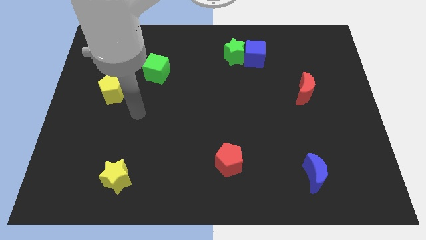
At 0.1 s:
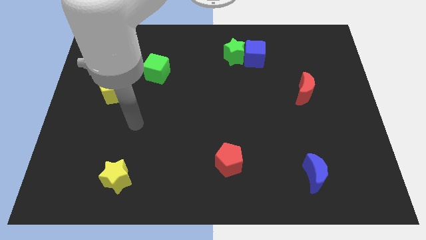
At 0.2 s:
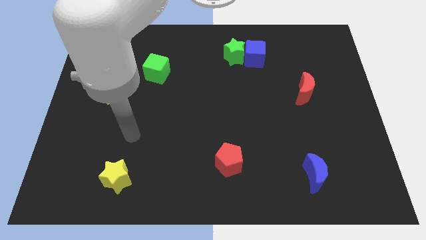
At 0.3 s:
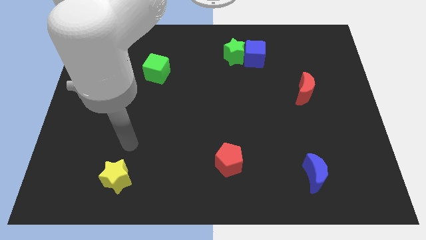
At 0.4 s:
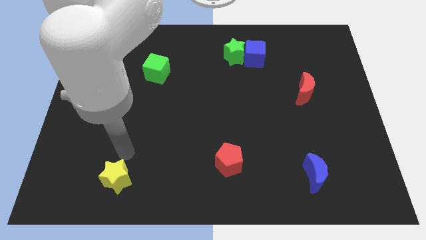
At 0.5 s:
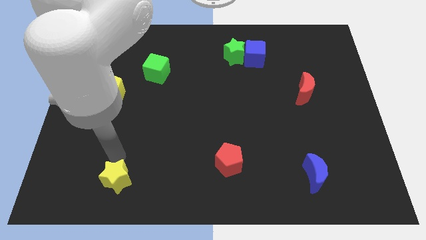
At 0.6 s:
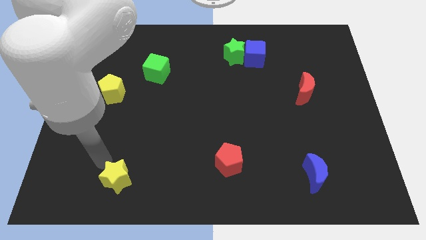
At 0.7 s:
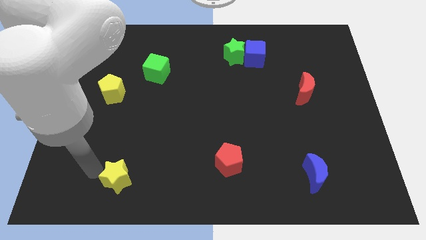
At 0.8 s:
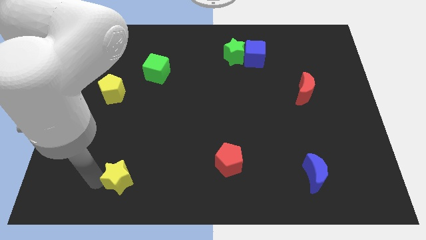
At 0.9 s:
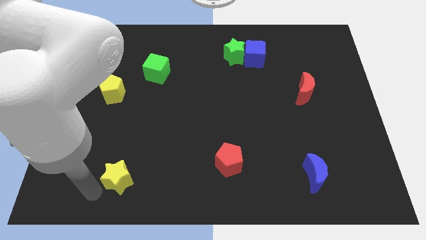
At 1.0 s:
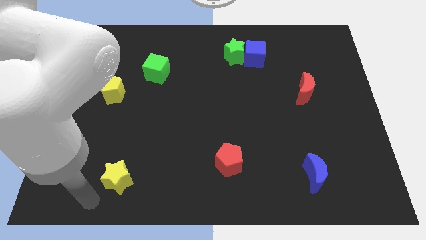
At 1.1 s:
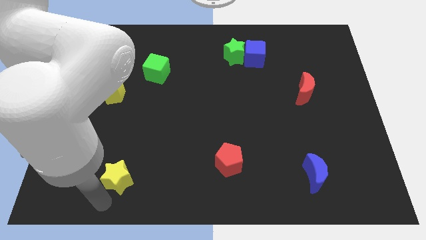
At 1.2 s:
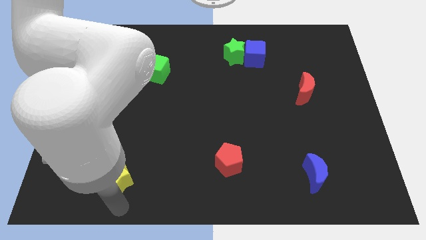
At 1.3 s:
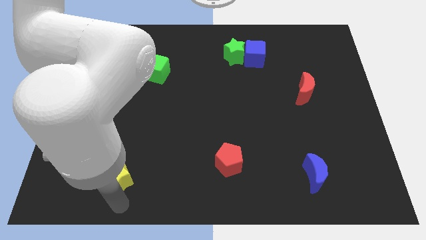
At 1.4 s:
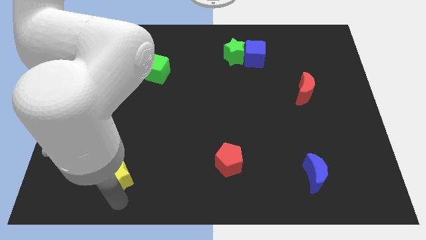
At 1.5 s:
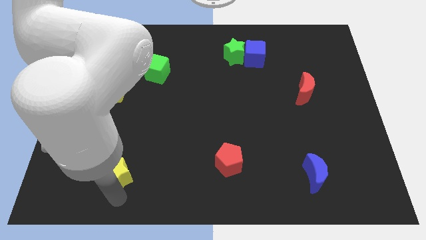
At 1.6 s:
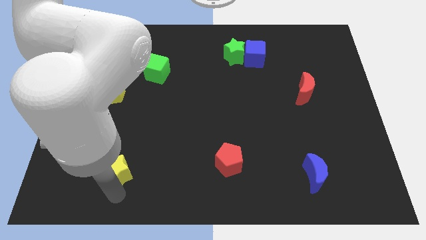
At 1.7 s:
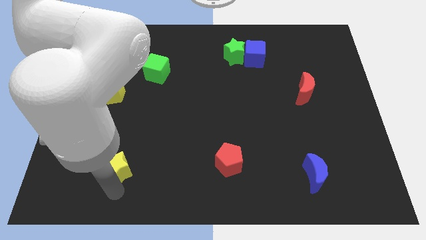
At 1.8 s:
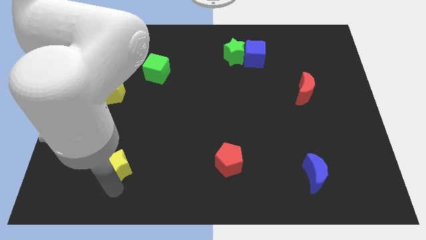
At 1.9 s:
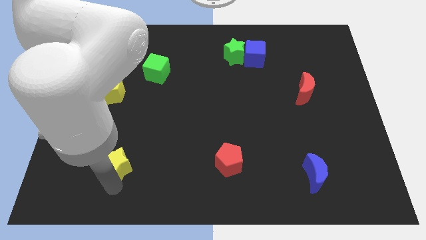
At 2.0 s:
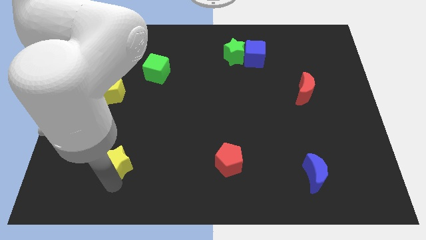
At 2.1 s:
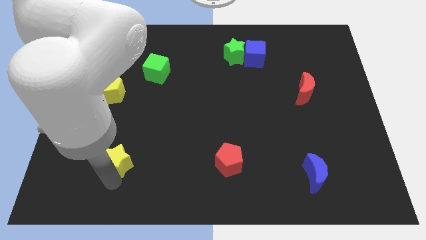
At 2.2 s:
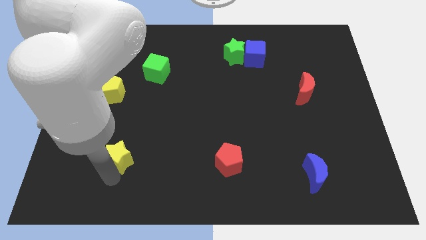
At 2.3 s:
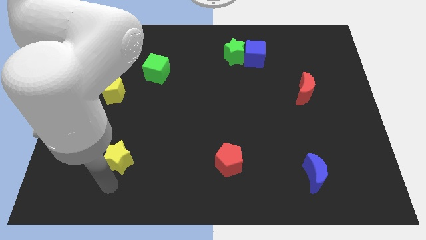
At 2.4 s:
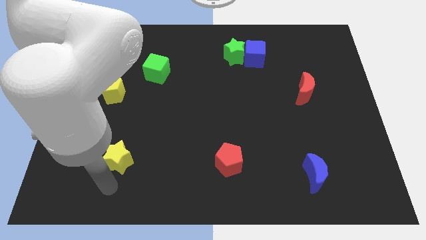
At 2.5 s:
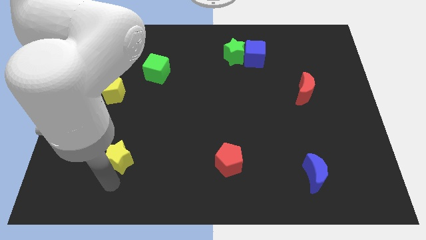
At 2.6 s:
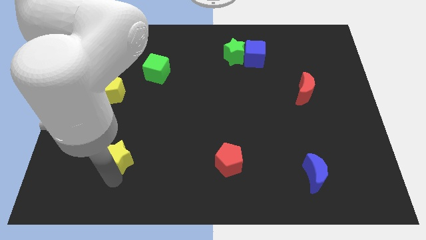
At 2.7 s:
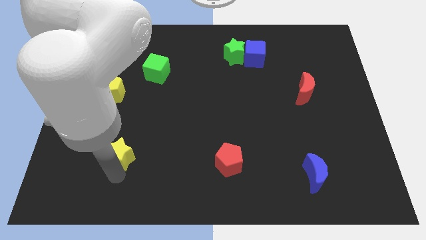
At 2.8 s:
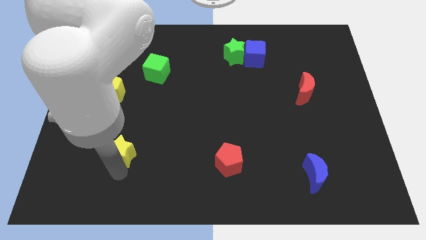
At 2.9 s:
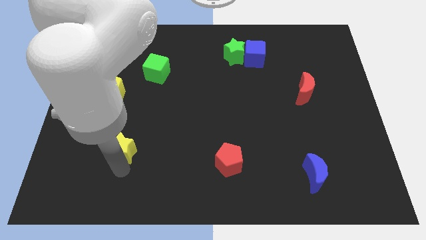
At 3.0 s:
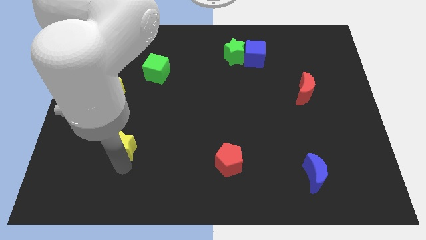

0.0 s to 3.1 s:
slide the yellow star upwards a bit

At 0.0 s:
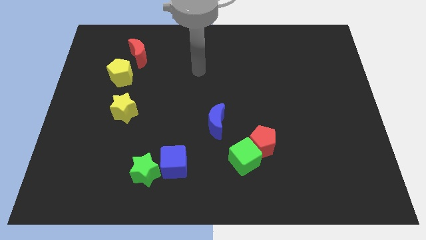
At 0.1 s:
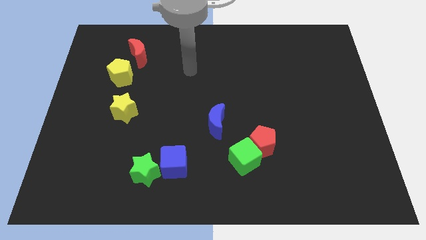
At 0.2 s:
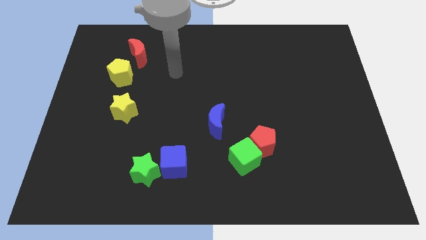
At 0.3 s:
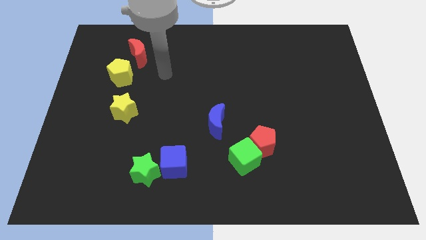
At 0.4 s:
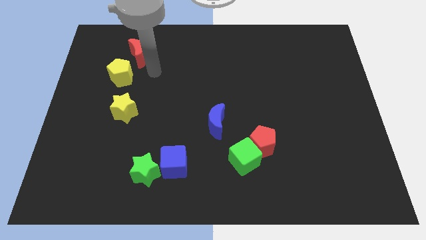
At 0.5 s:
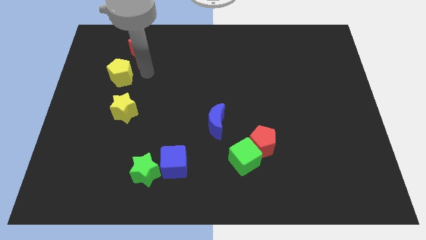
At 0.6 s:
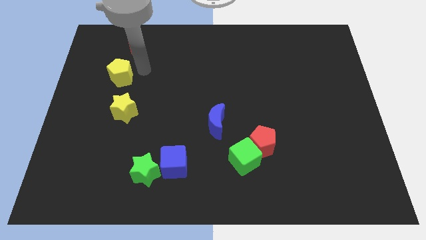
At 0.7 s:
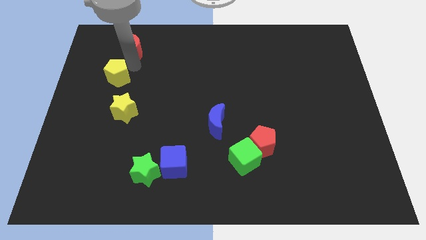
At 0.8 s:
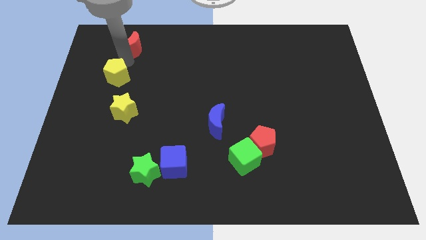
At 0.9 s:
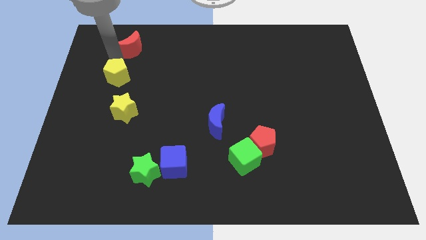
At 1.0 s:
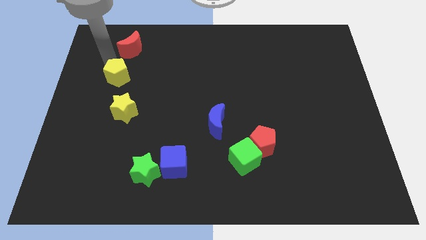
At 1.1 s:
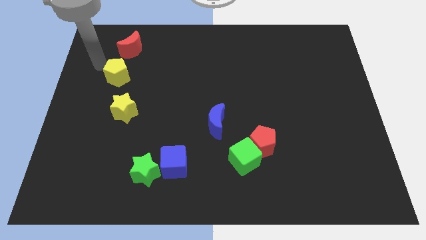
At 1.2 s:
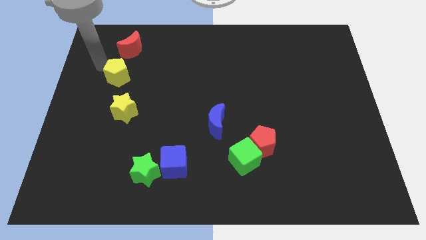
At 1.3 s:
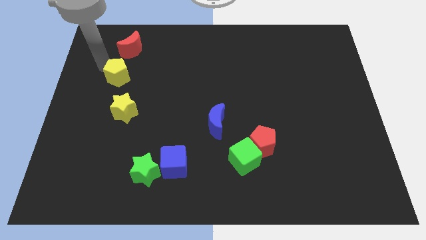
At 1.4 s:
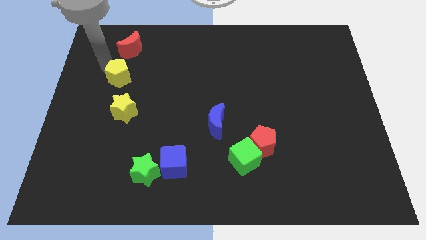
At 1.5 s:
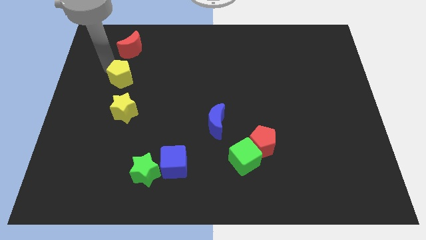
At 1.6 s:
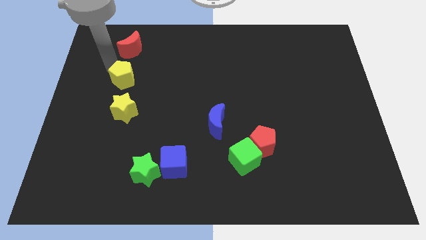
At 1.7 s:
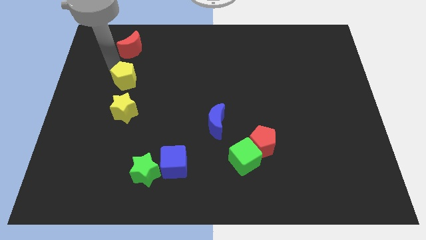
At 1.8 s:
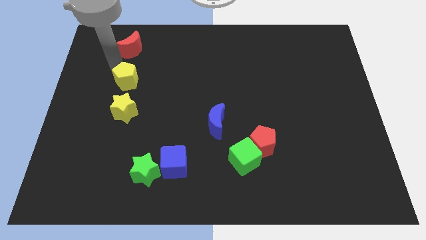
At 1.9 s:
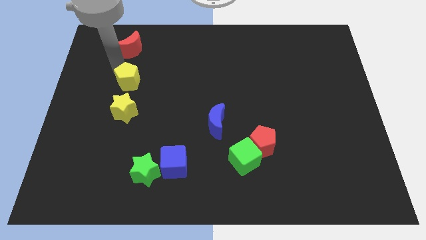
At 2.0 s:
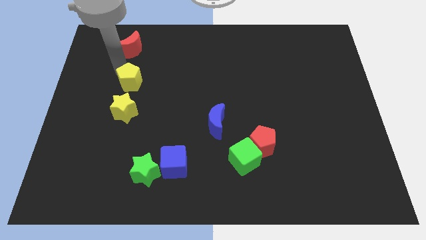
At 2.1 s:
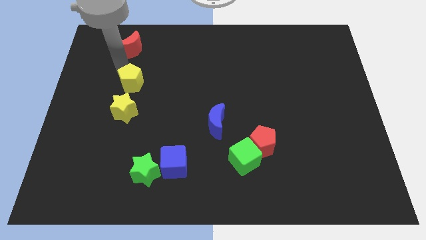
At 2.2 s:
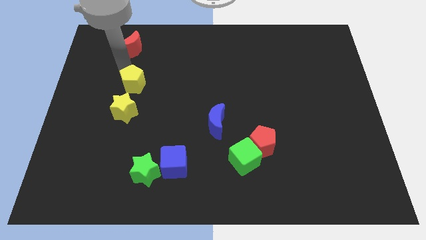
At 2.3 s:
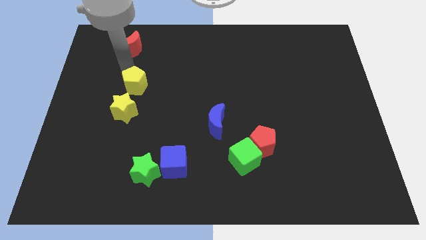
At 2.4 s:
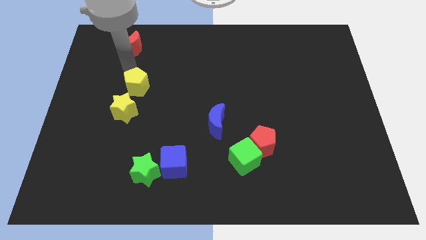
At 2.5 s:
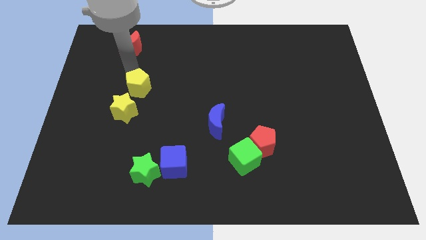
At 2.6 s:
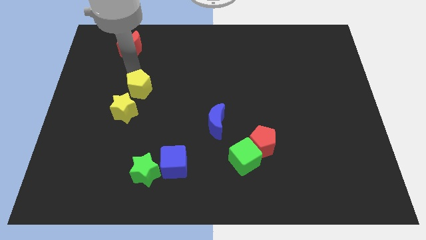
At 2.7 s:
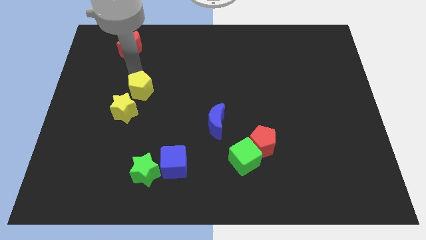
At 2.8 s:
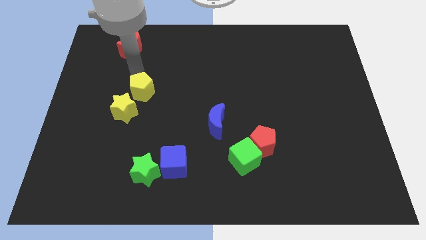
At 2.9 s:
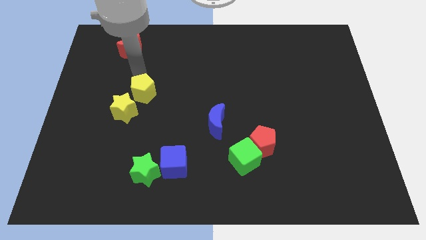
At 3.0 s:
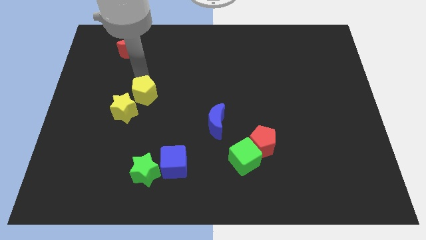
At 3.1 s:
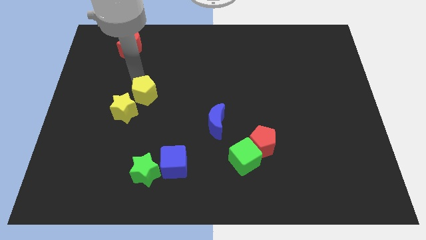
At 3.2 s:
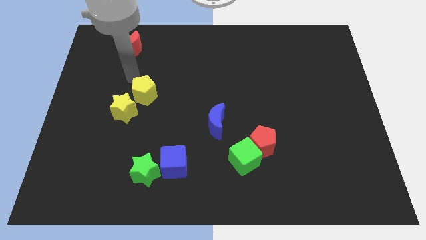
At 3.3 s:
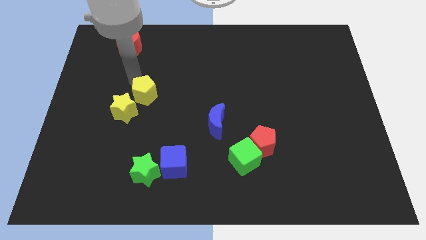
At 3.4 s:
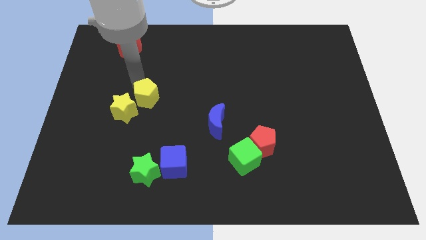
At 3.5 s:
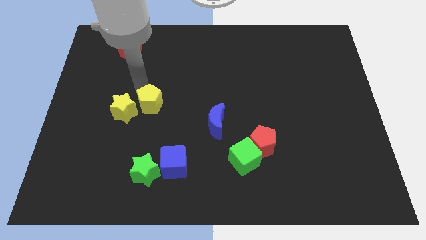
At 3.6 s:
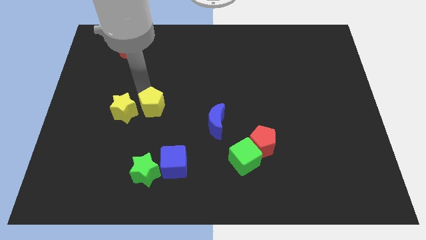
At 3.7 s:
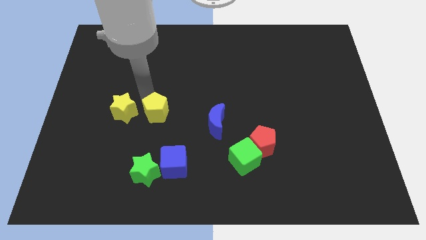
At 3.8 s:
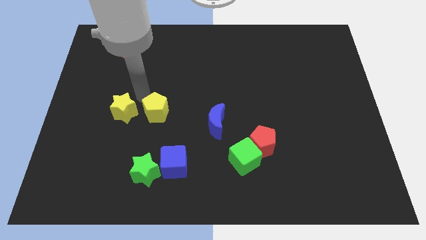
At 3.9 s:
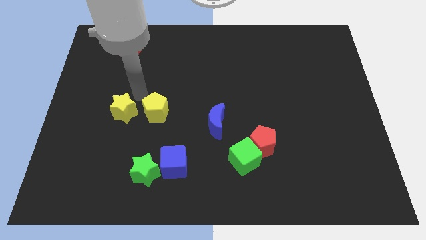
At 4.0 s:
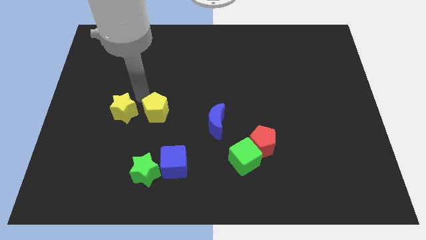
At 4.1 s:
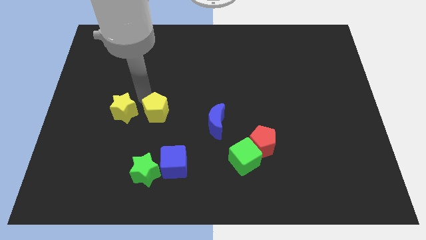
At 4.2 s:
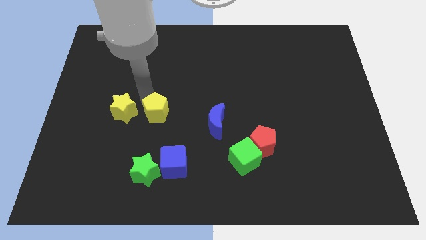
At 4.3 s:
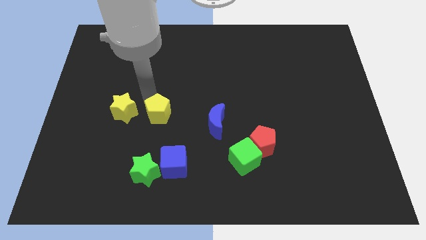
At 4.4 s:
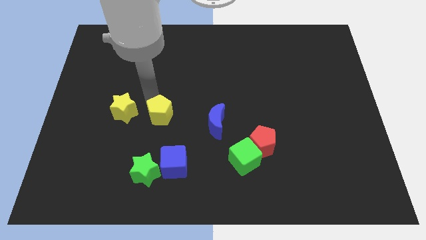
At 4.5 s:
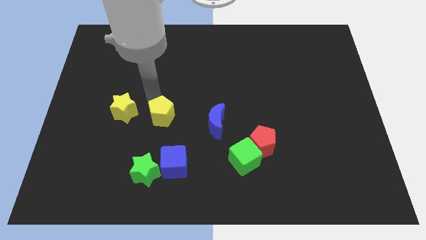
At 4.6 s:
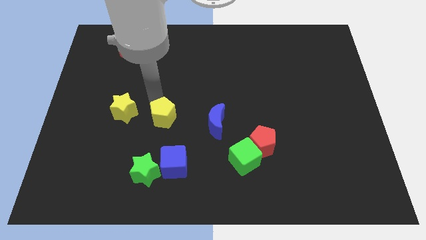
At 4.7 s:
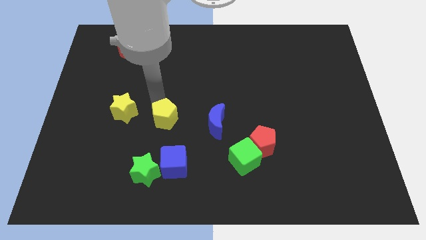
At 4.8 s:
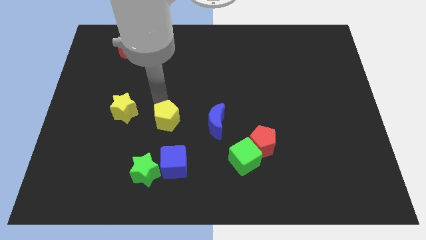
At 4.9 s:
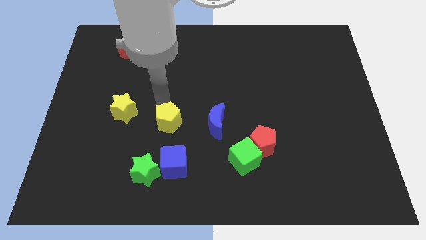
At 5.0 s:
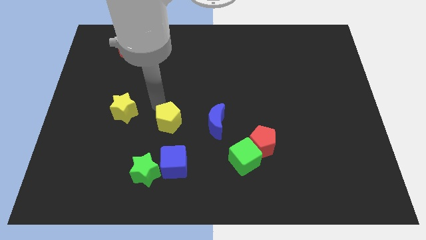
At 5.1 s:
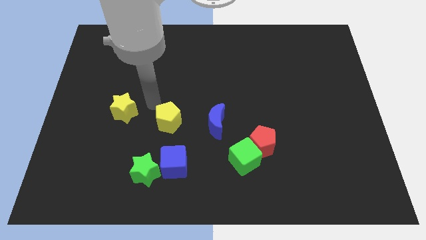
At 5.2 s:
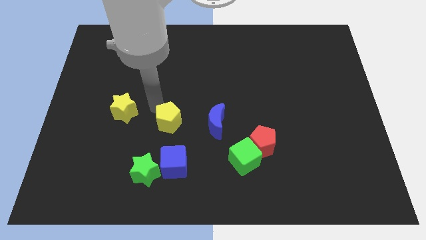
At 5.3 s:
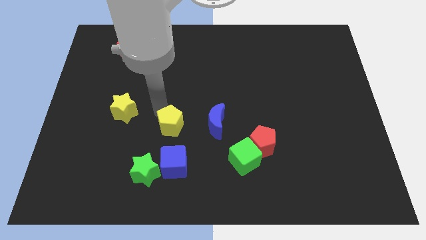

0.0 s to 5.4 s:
move the yellow pentagon diagonally downwards and to the right
